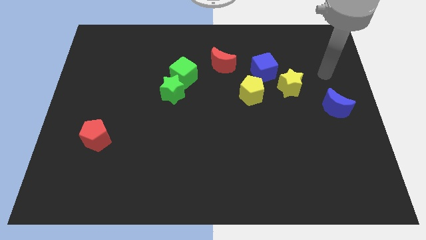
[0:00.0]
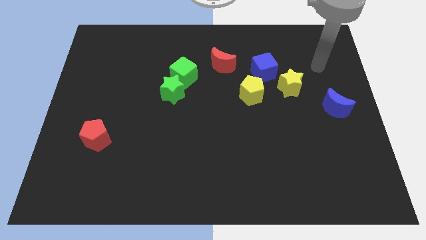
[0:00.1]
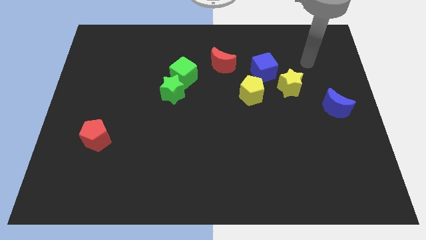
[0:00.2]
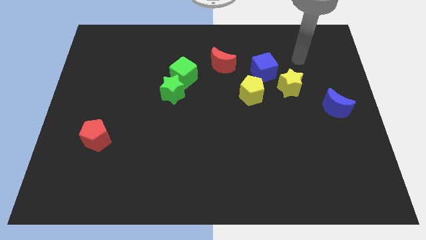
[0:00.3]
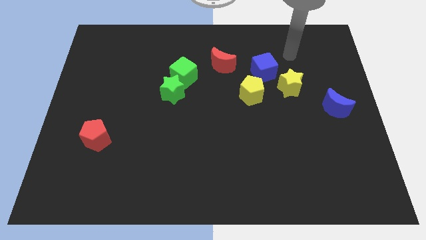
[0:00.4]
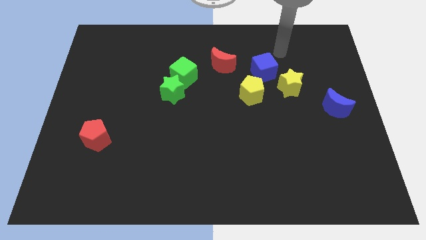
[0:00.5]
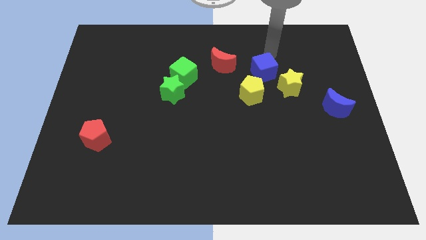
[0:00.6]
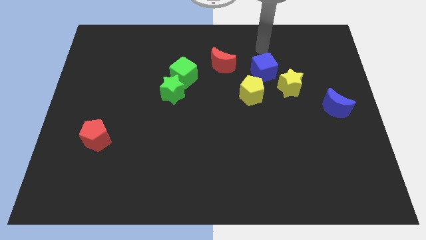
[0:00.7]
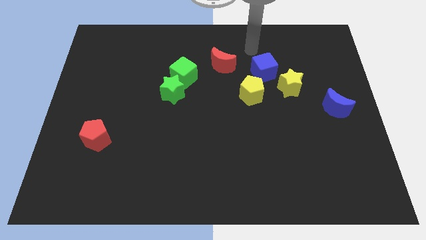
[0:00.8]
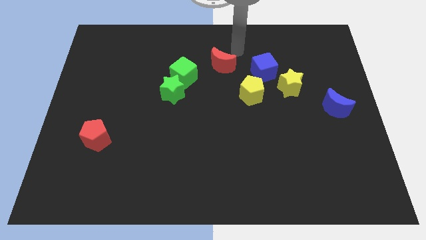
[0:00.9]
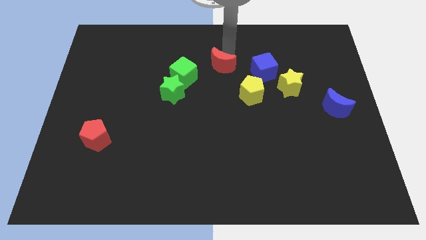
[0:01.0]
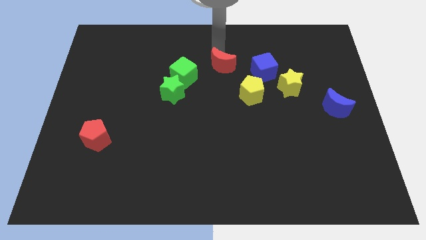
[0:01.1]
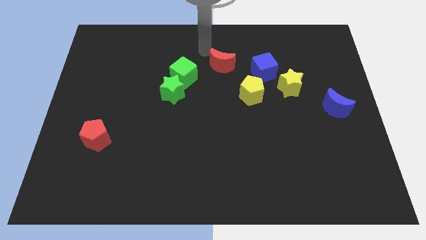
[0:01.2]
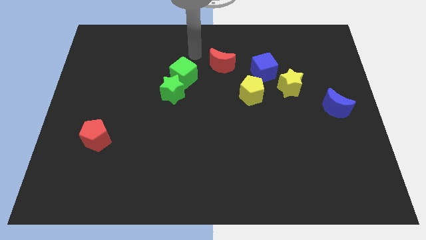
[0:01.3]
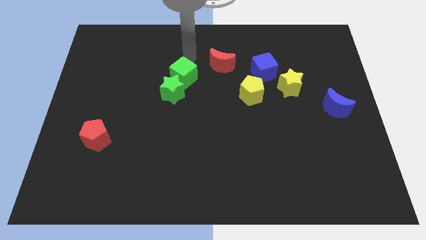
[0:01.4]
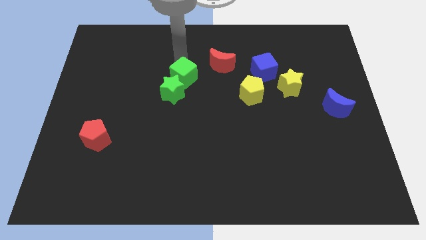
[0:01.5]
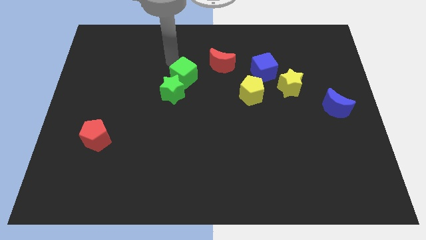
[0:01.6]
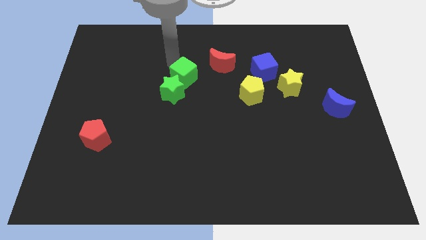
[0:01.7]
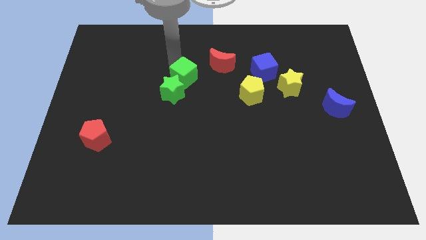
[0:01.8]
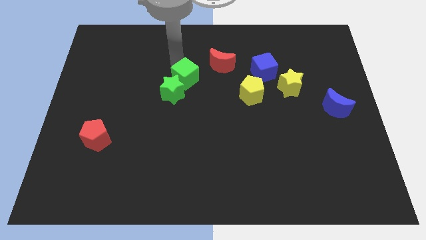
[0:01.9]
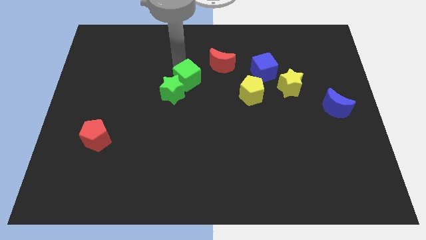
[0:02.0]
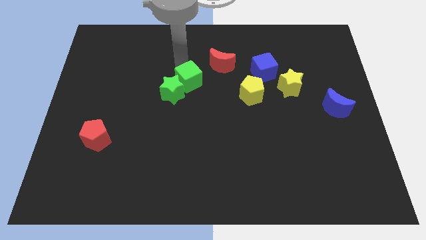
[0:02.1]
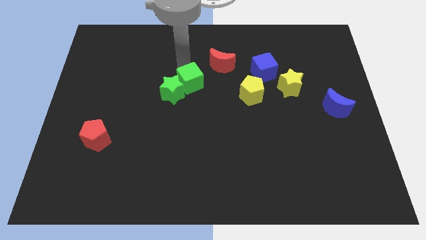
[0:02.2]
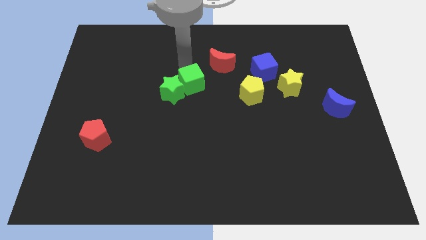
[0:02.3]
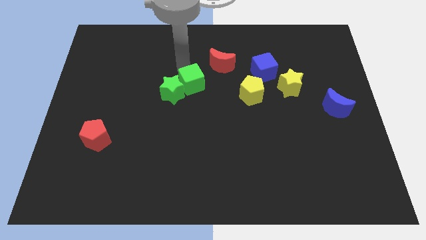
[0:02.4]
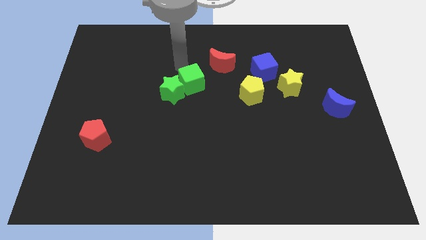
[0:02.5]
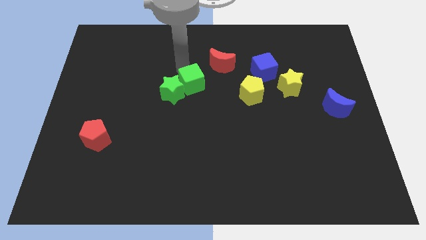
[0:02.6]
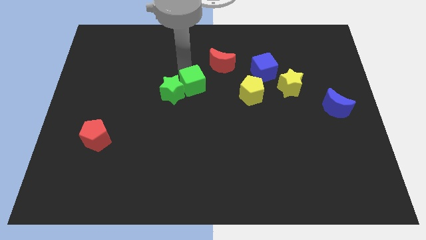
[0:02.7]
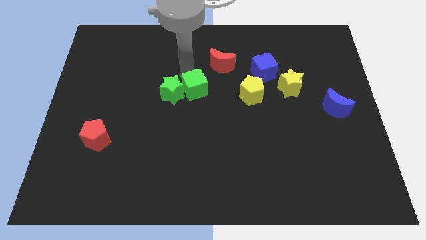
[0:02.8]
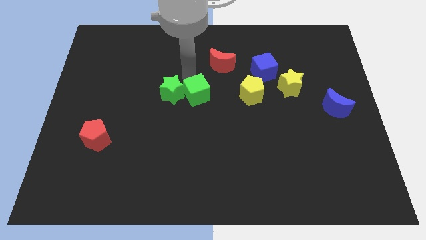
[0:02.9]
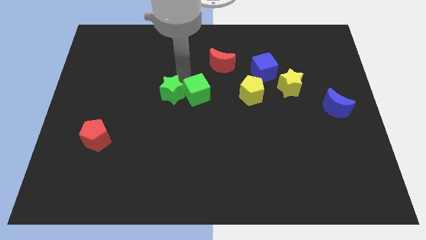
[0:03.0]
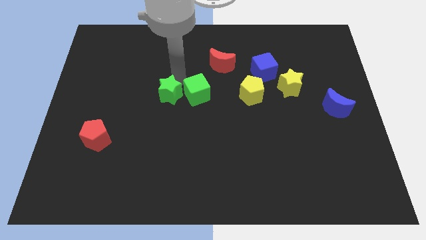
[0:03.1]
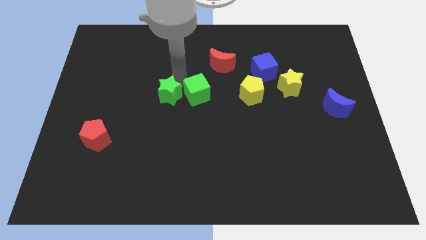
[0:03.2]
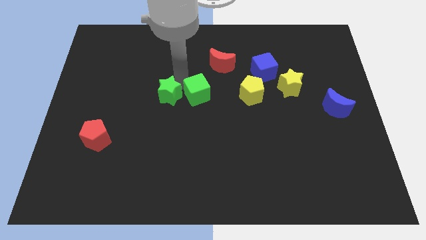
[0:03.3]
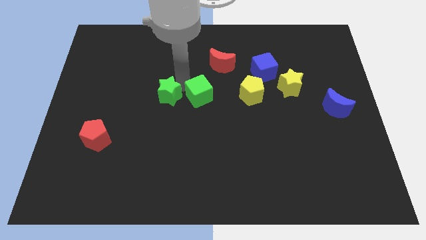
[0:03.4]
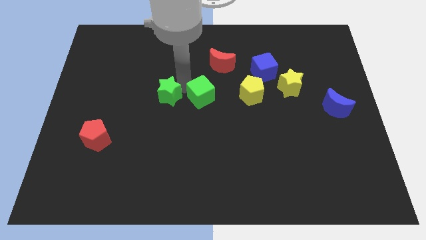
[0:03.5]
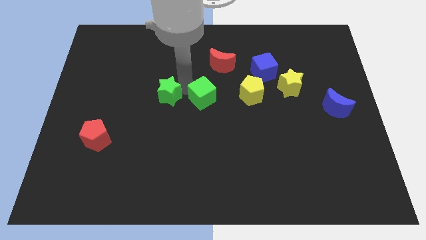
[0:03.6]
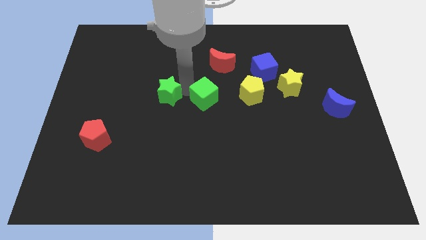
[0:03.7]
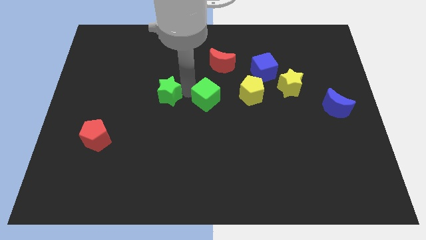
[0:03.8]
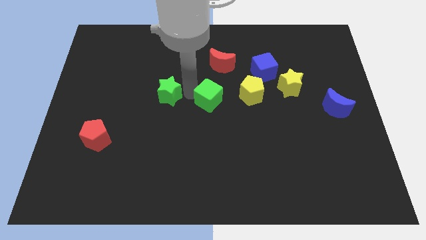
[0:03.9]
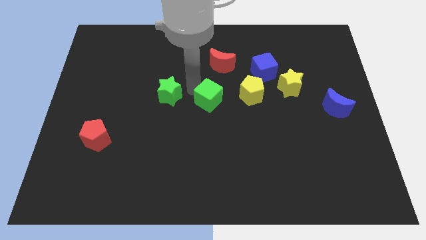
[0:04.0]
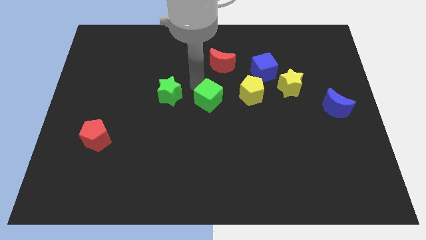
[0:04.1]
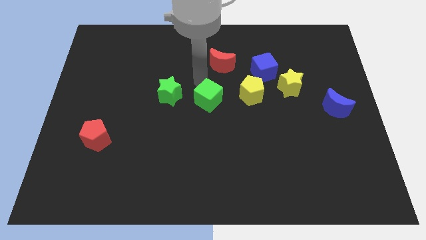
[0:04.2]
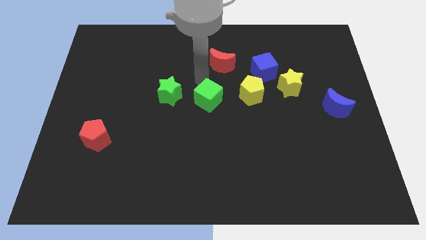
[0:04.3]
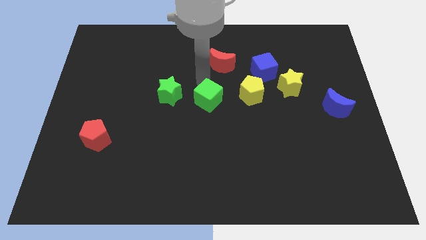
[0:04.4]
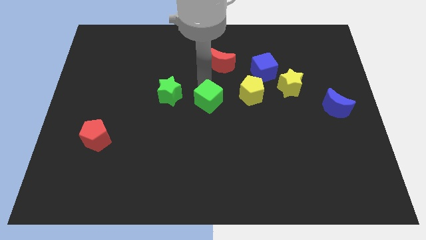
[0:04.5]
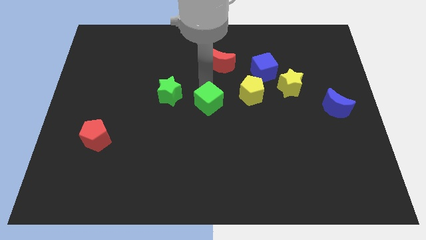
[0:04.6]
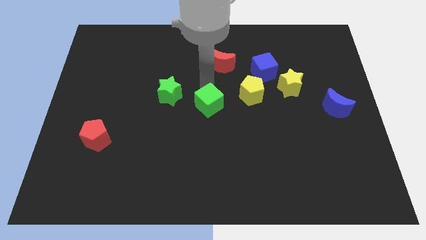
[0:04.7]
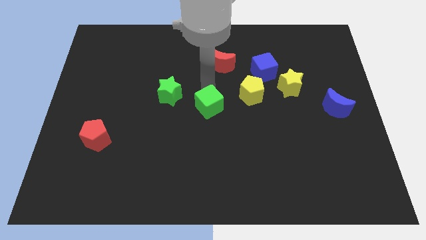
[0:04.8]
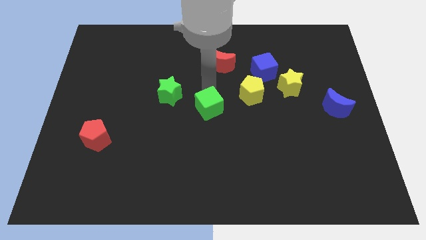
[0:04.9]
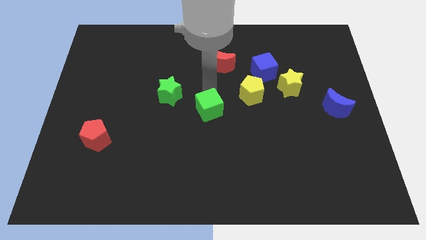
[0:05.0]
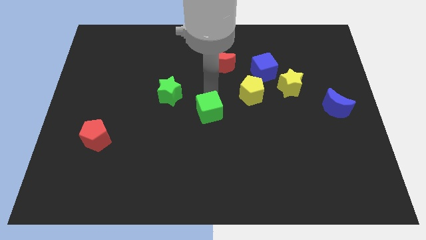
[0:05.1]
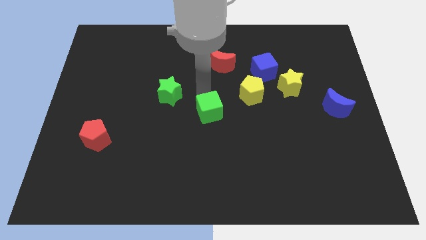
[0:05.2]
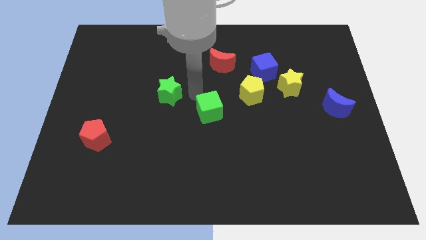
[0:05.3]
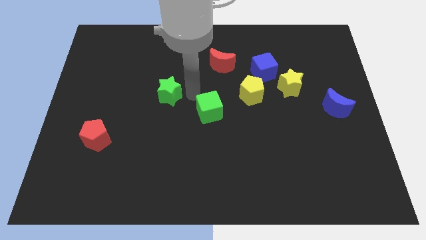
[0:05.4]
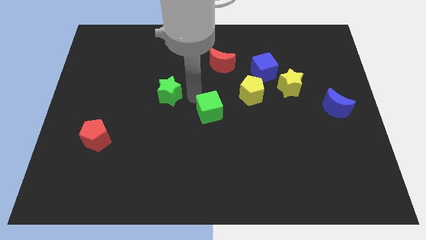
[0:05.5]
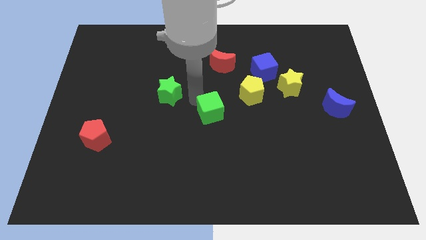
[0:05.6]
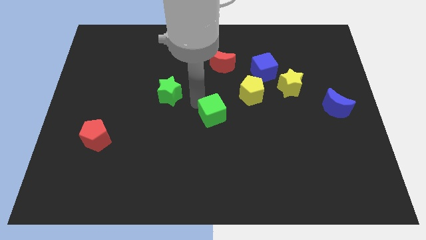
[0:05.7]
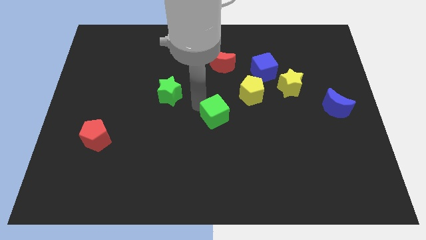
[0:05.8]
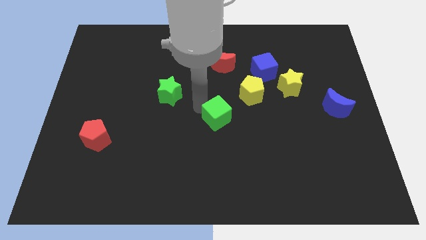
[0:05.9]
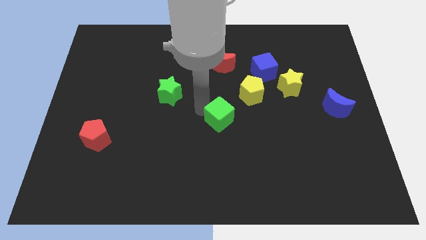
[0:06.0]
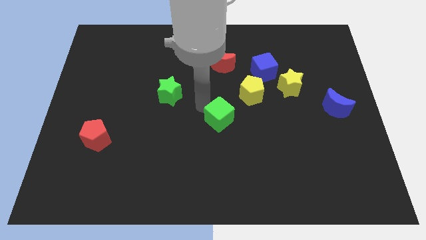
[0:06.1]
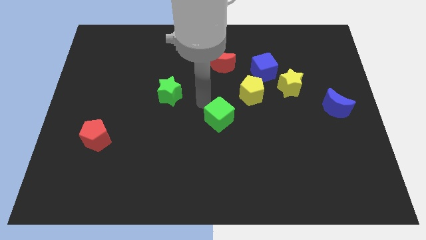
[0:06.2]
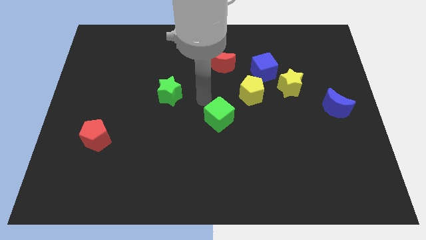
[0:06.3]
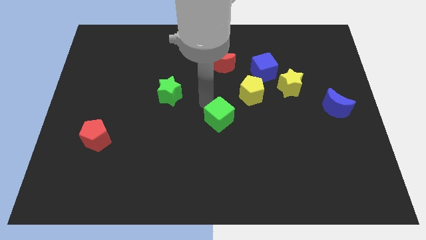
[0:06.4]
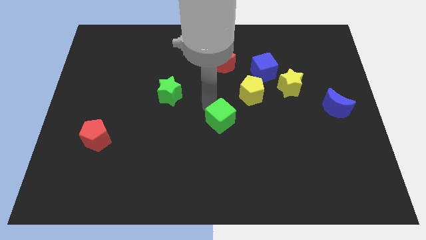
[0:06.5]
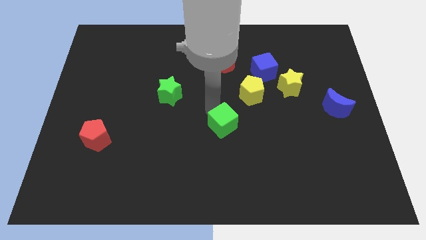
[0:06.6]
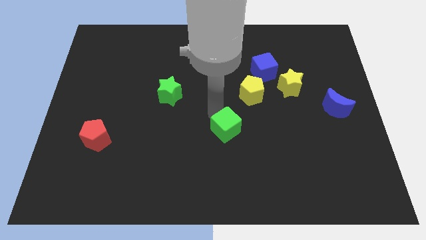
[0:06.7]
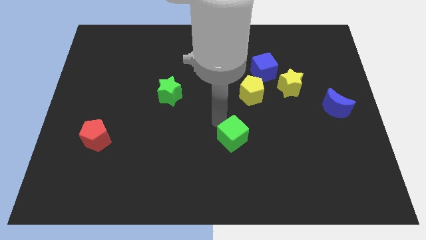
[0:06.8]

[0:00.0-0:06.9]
move the green cube downwards and to the right diagonally

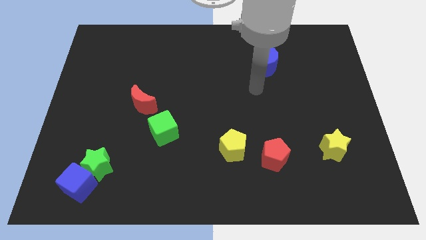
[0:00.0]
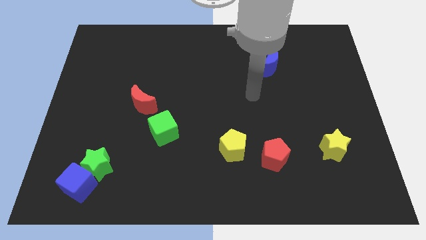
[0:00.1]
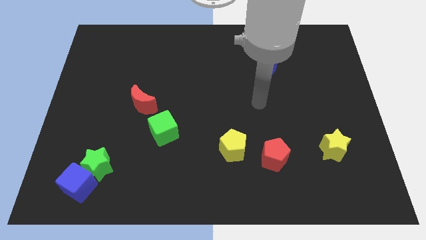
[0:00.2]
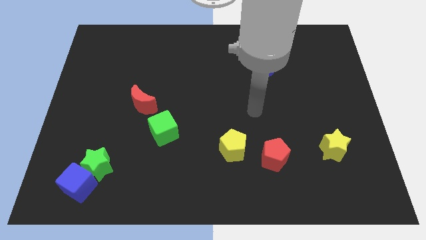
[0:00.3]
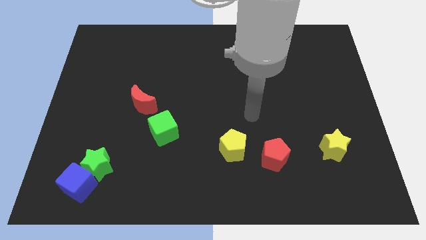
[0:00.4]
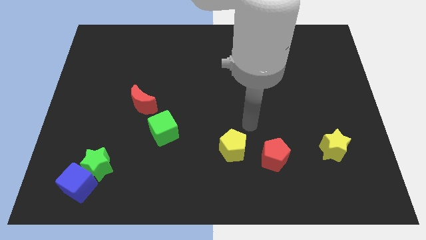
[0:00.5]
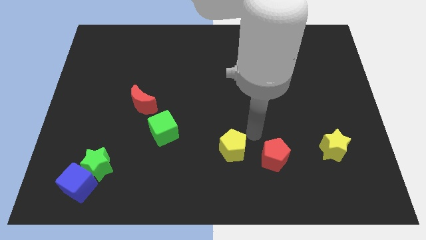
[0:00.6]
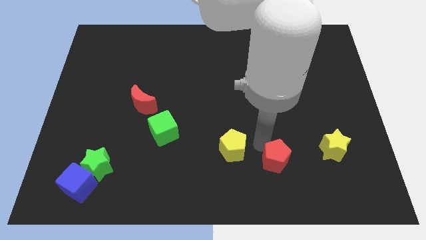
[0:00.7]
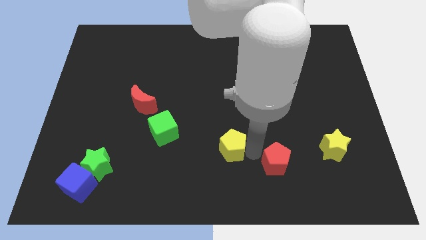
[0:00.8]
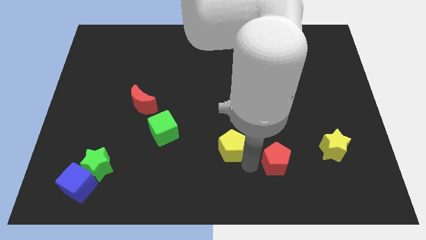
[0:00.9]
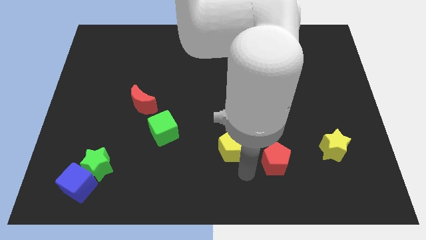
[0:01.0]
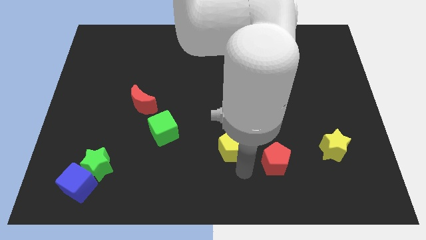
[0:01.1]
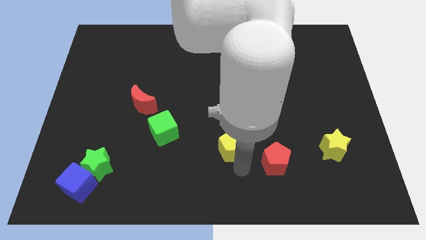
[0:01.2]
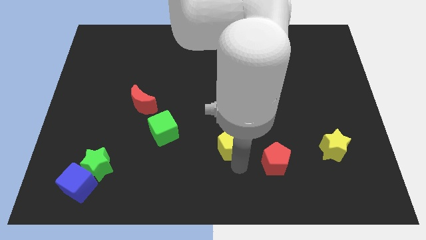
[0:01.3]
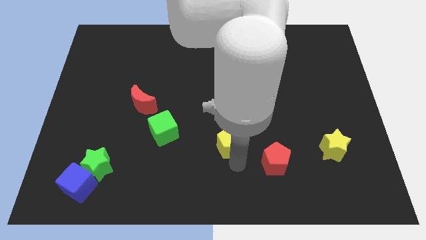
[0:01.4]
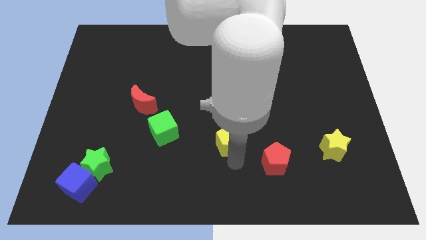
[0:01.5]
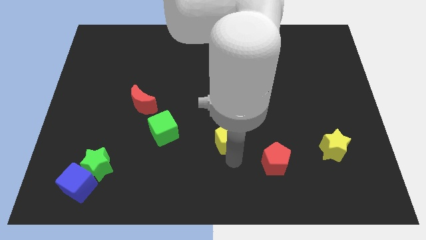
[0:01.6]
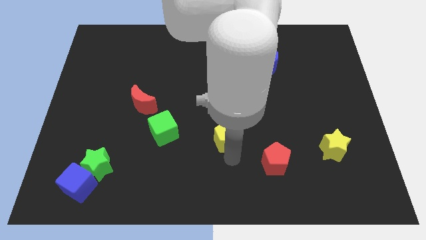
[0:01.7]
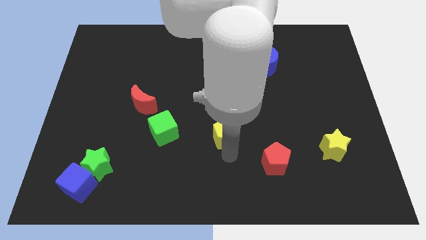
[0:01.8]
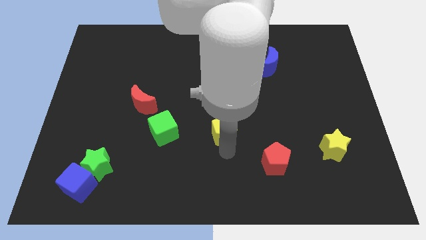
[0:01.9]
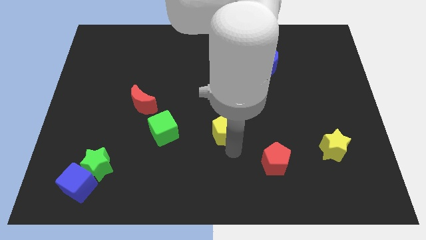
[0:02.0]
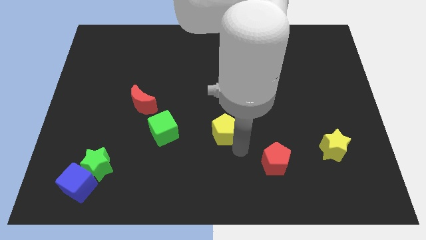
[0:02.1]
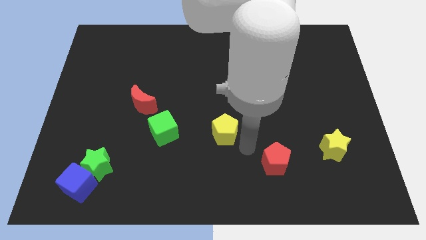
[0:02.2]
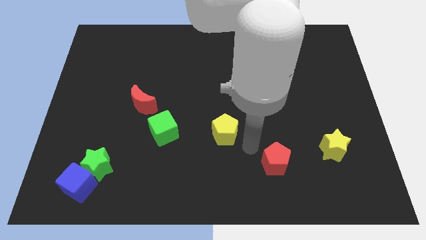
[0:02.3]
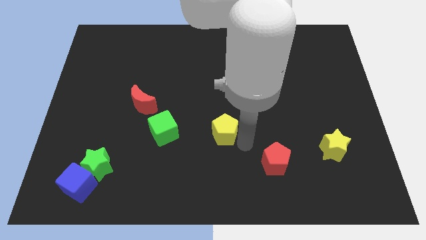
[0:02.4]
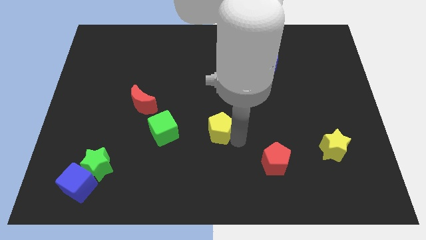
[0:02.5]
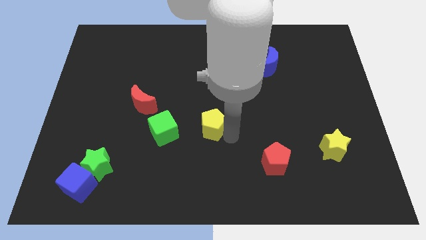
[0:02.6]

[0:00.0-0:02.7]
move the yellow pentagon upwards and to the left a little bit
